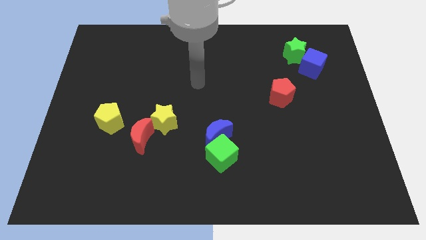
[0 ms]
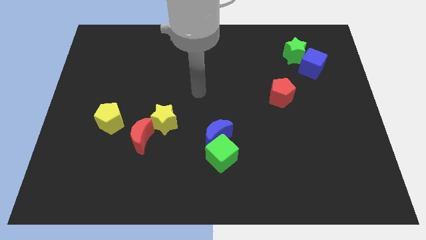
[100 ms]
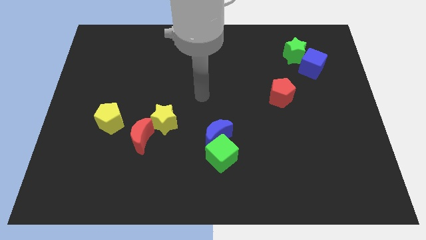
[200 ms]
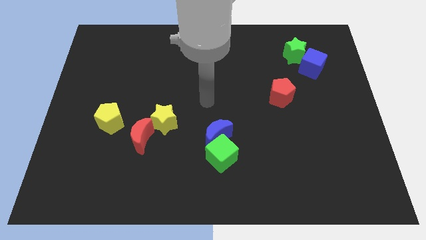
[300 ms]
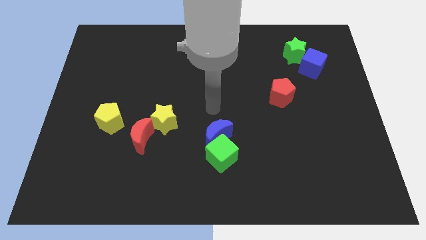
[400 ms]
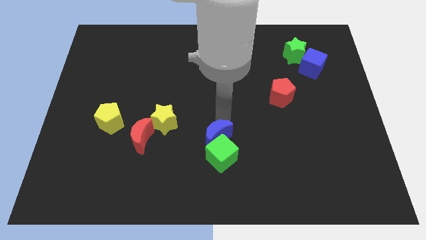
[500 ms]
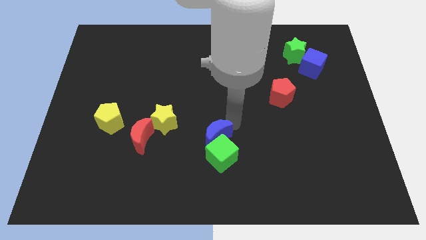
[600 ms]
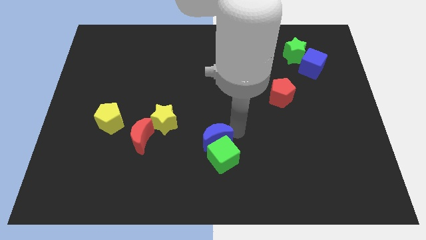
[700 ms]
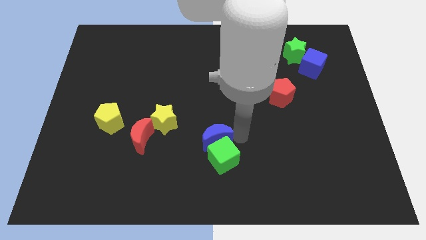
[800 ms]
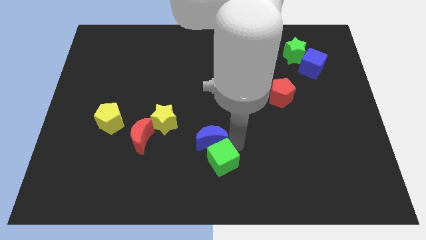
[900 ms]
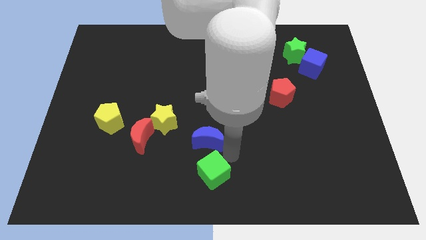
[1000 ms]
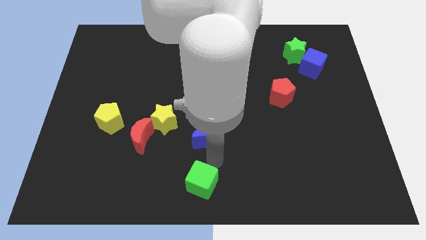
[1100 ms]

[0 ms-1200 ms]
pull the blue moon apart from the green cube

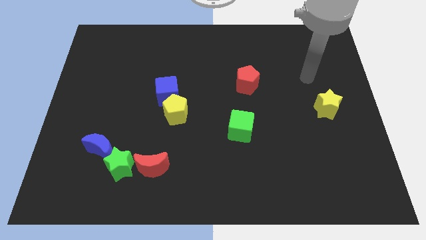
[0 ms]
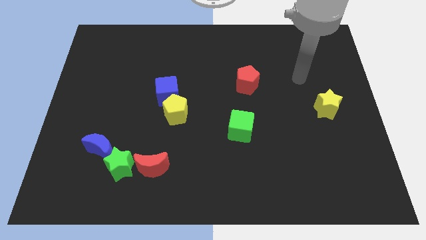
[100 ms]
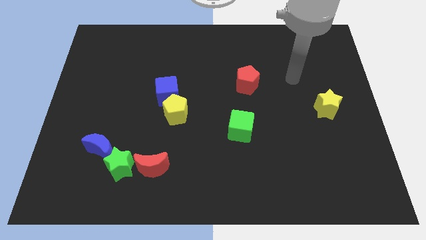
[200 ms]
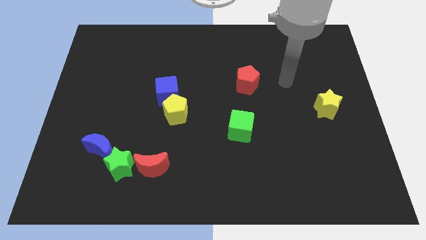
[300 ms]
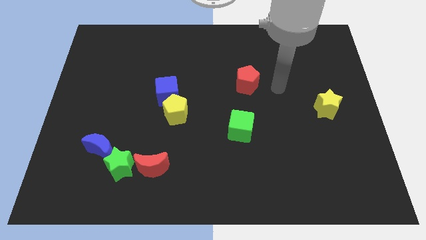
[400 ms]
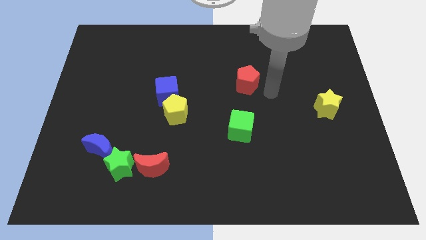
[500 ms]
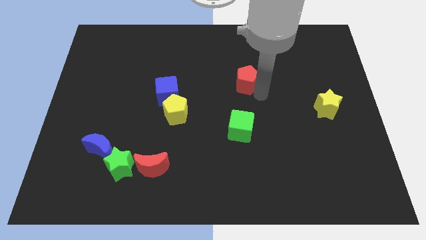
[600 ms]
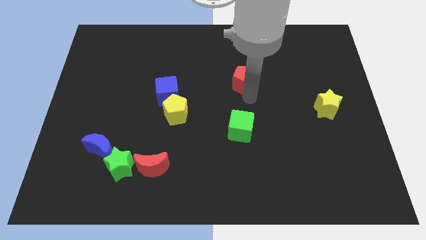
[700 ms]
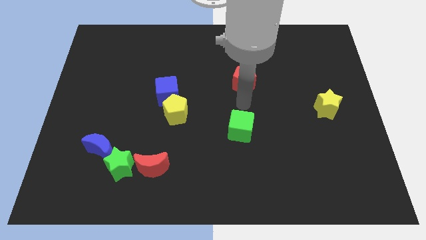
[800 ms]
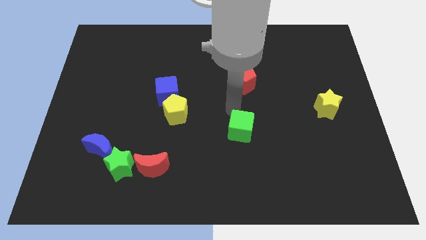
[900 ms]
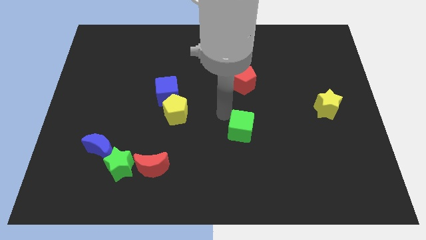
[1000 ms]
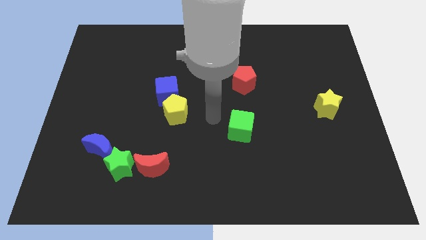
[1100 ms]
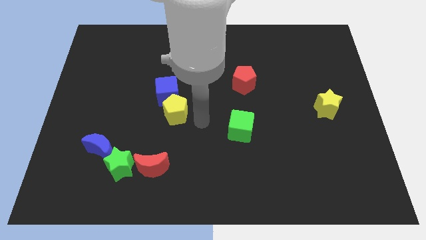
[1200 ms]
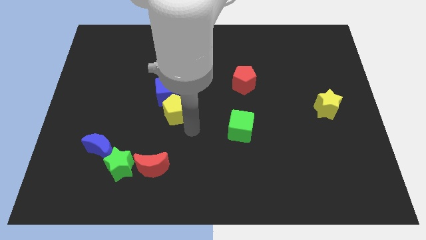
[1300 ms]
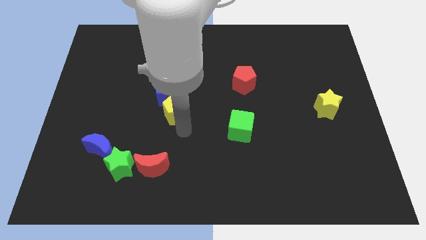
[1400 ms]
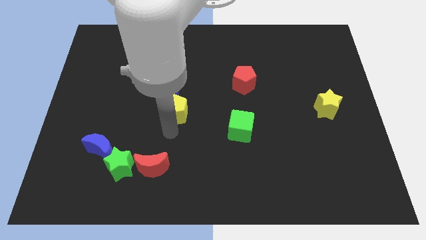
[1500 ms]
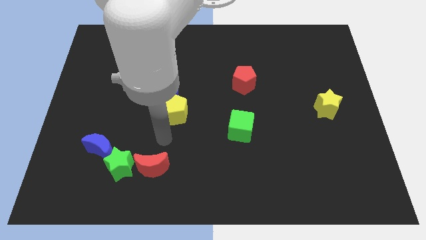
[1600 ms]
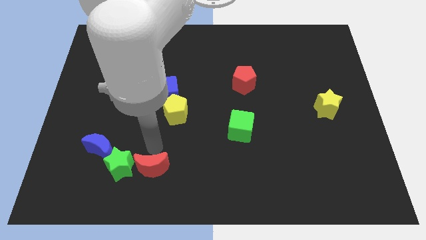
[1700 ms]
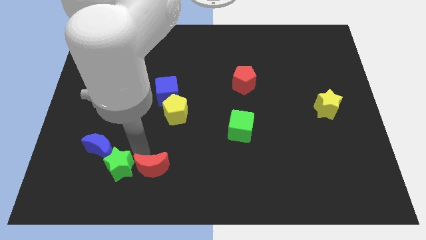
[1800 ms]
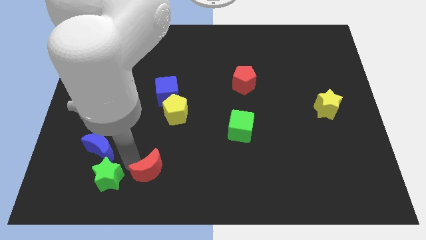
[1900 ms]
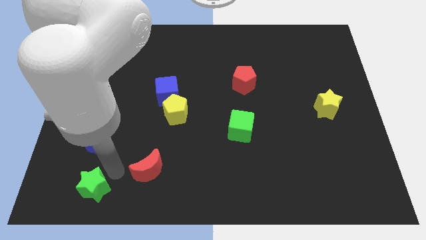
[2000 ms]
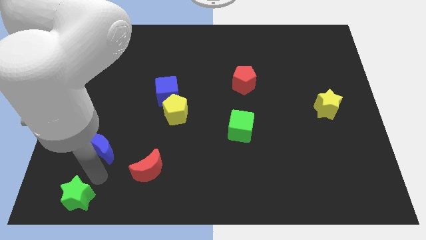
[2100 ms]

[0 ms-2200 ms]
move the blue moon away from the green star

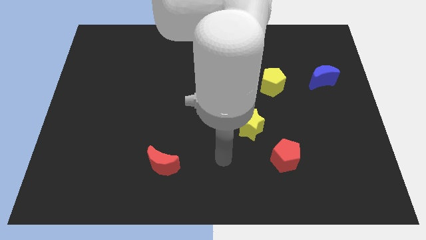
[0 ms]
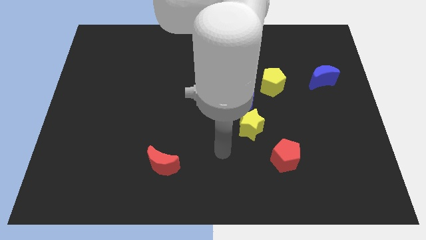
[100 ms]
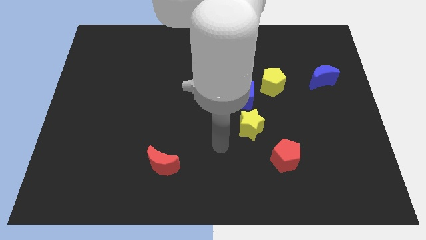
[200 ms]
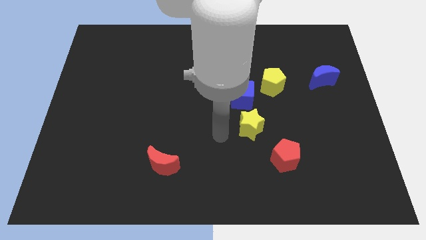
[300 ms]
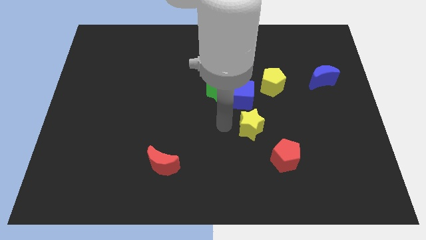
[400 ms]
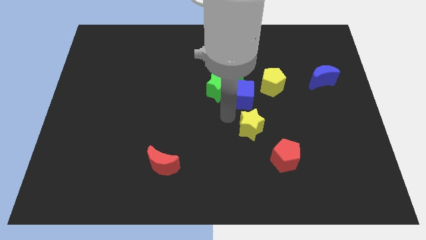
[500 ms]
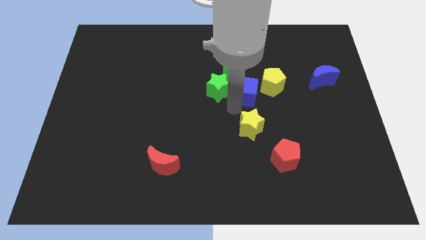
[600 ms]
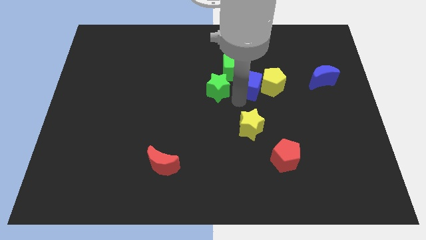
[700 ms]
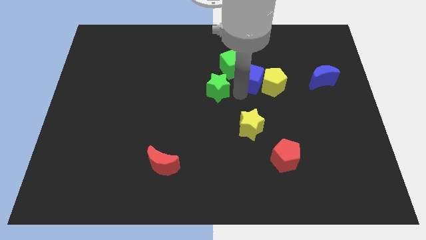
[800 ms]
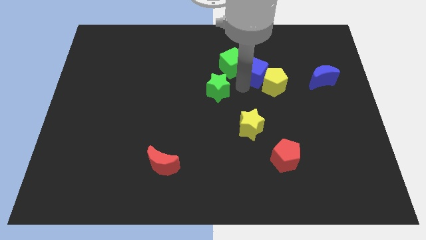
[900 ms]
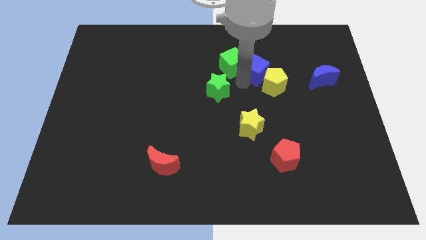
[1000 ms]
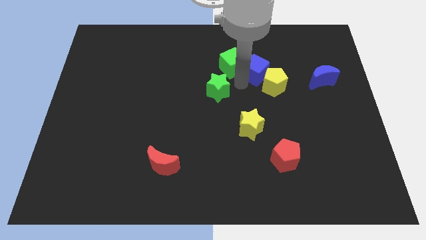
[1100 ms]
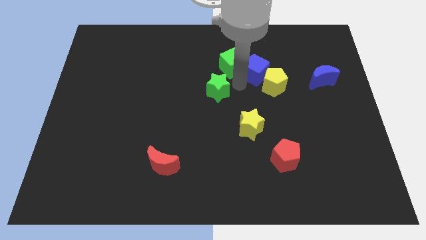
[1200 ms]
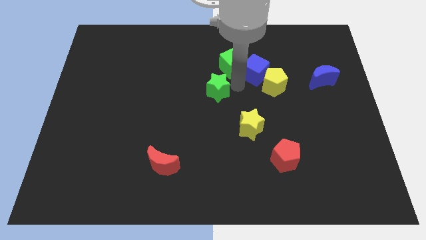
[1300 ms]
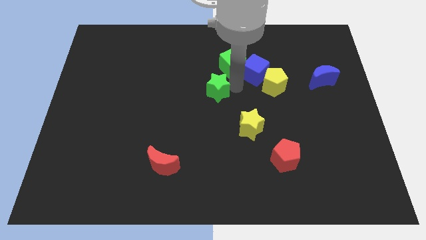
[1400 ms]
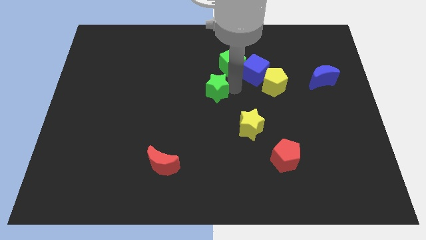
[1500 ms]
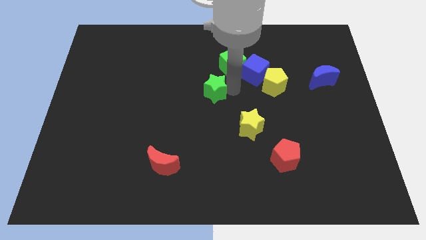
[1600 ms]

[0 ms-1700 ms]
move the green star away from the blue cube and green cube

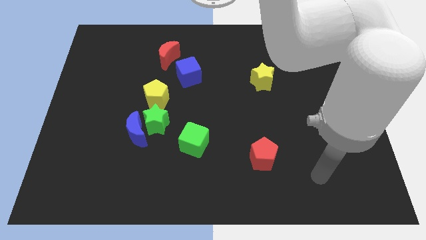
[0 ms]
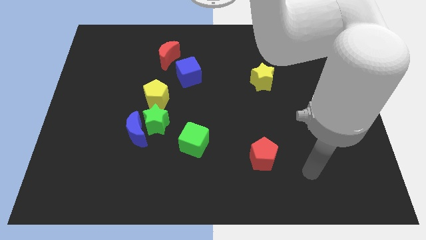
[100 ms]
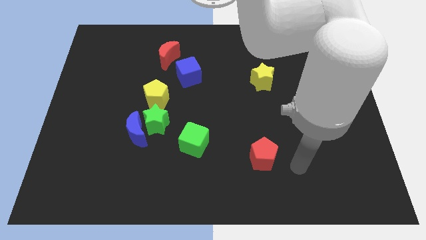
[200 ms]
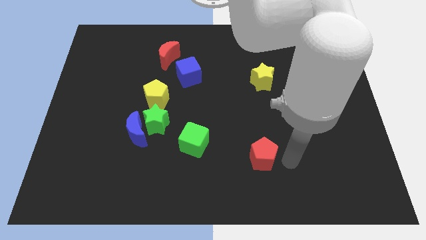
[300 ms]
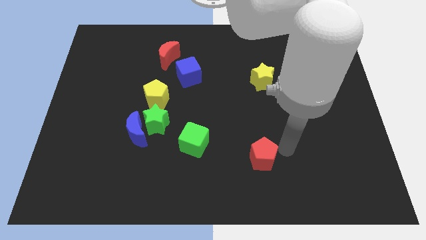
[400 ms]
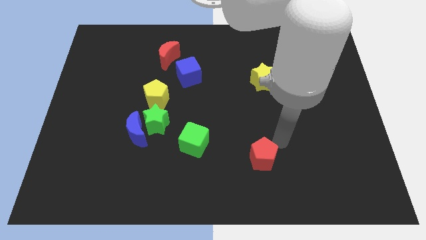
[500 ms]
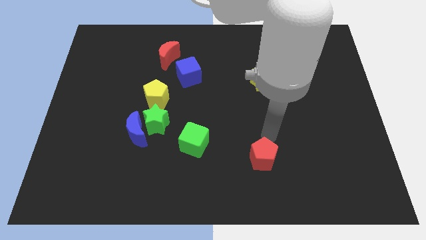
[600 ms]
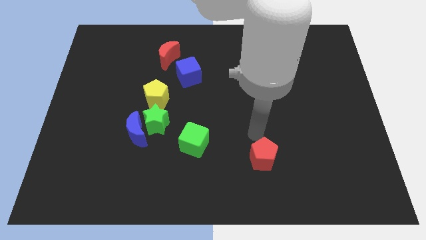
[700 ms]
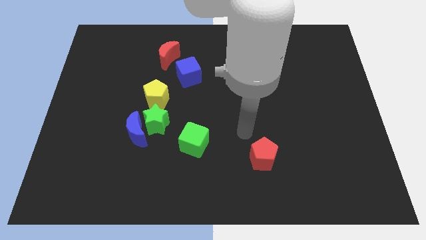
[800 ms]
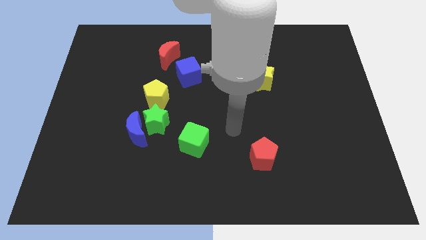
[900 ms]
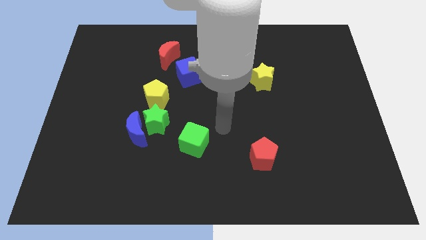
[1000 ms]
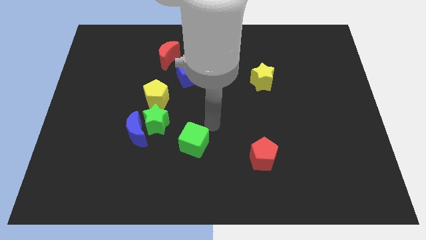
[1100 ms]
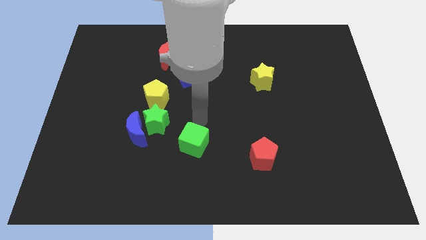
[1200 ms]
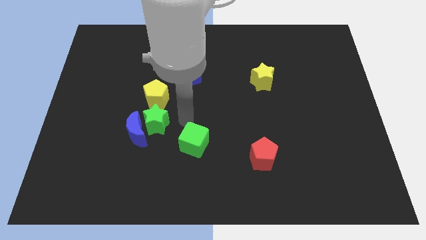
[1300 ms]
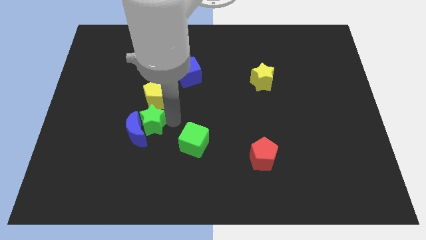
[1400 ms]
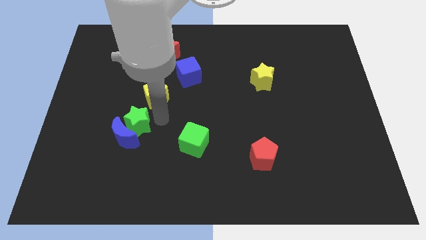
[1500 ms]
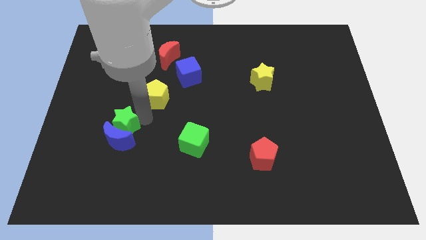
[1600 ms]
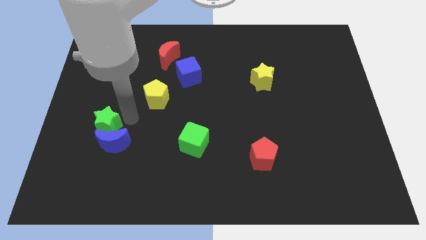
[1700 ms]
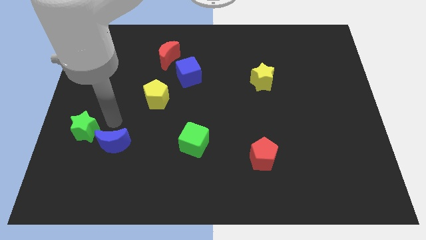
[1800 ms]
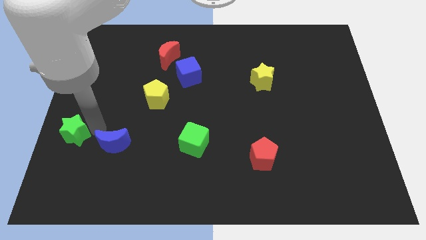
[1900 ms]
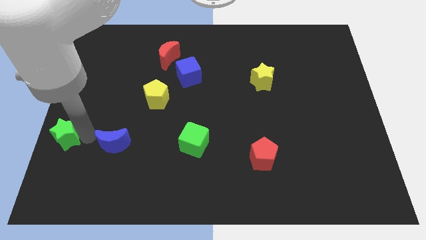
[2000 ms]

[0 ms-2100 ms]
pull the blue moon apart from the green star

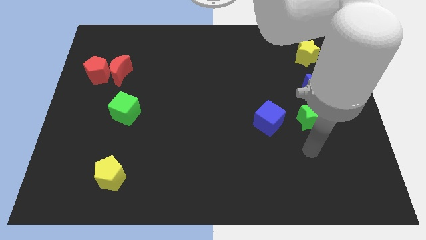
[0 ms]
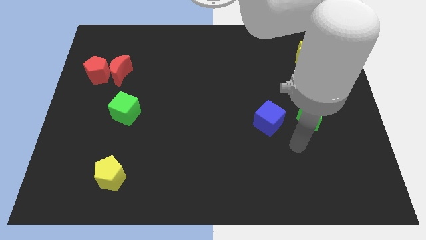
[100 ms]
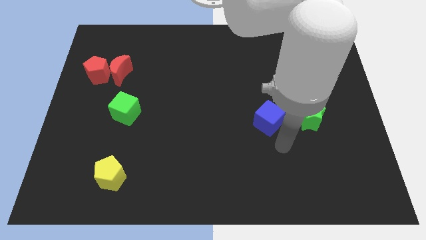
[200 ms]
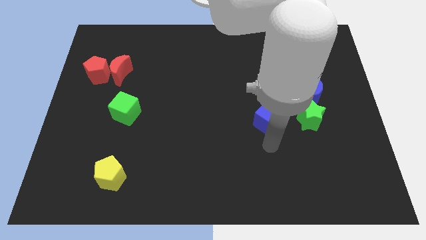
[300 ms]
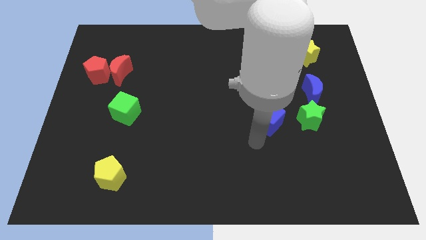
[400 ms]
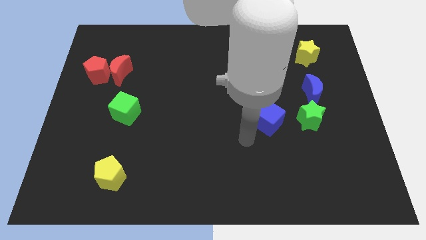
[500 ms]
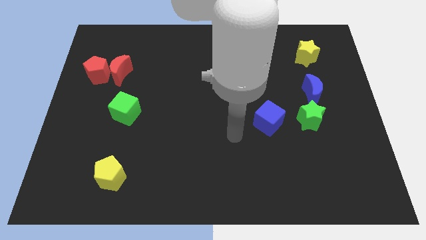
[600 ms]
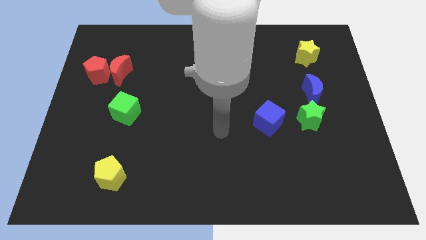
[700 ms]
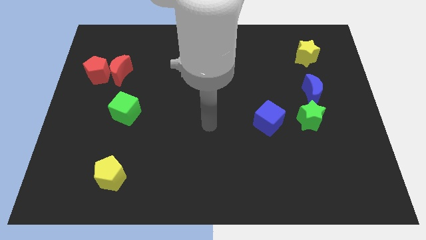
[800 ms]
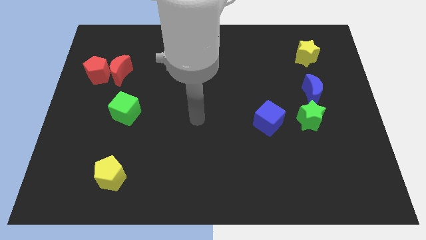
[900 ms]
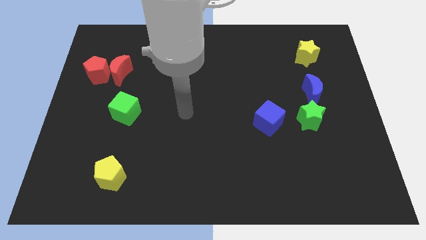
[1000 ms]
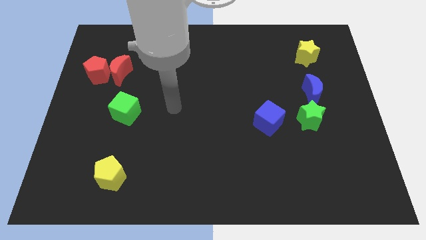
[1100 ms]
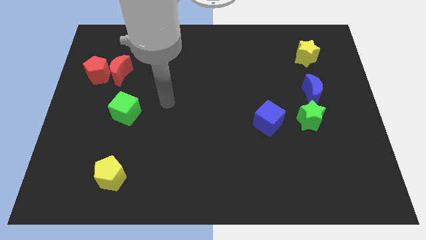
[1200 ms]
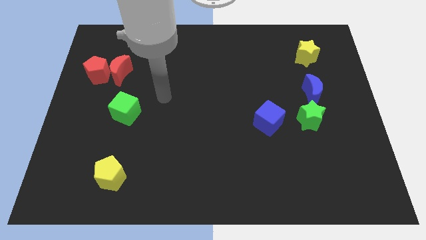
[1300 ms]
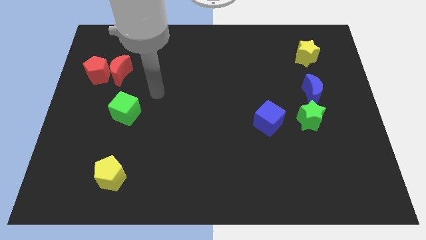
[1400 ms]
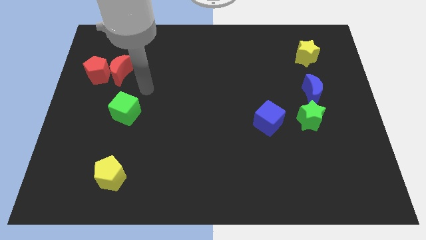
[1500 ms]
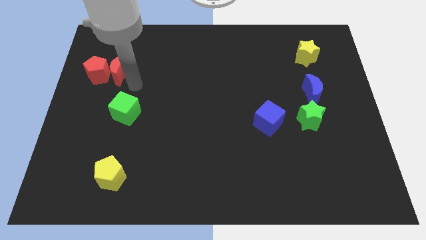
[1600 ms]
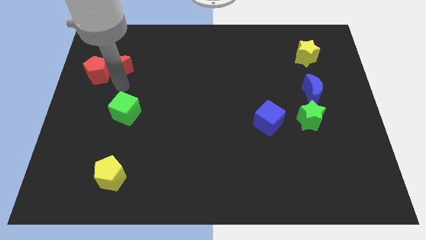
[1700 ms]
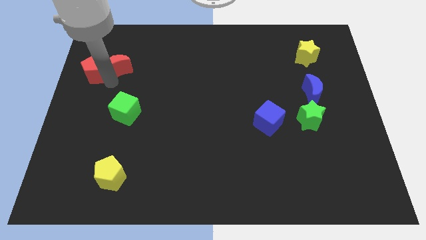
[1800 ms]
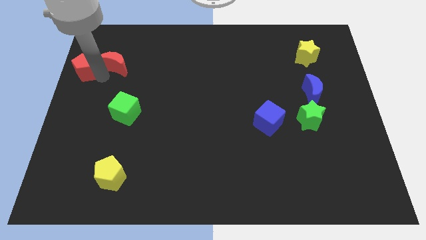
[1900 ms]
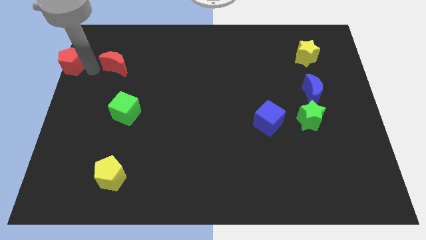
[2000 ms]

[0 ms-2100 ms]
separate the red moon from the red pentagon

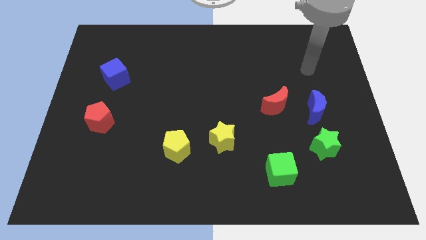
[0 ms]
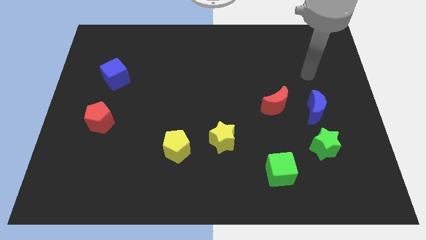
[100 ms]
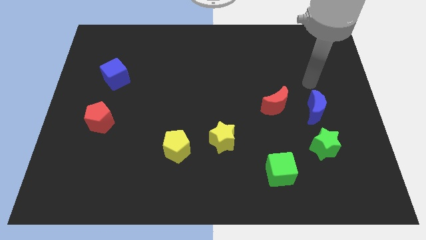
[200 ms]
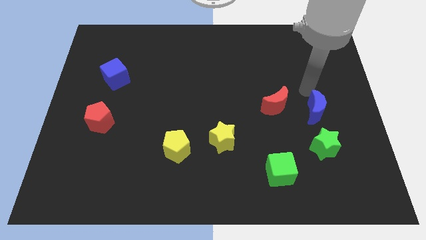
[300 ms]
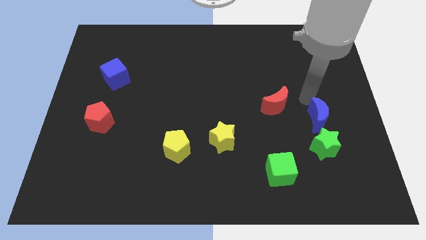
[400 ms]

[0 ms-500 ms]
move the red moon away from the blue moon
